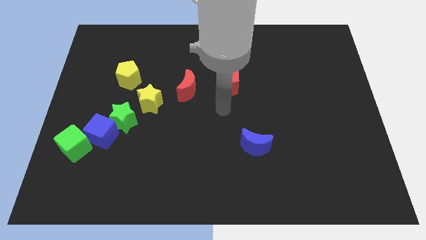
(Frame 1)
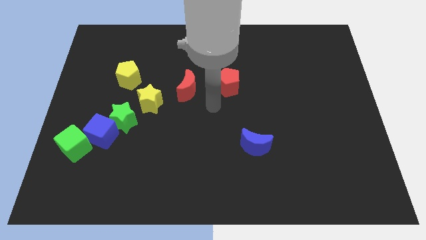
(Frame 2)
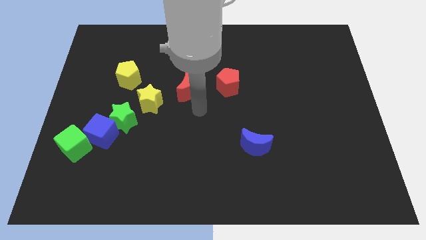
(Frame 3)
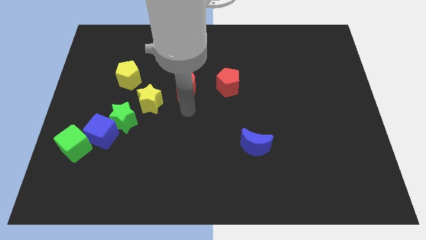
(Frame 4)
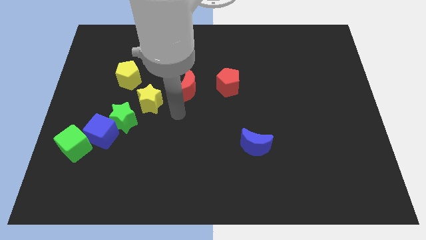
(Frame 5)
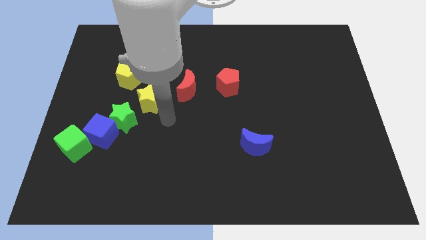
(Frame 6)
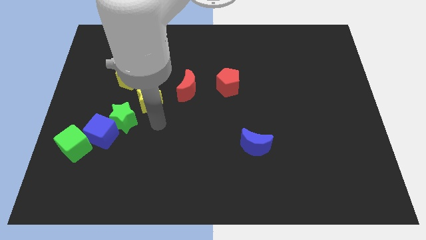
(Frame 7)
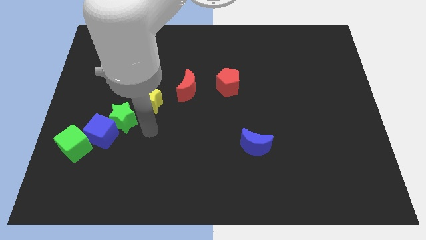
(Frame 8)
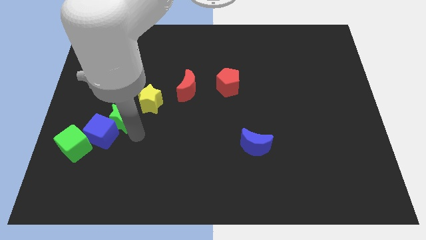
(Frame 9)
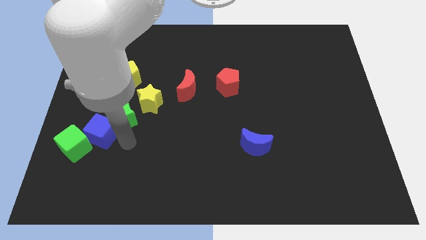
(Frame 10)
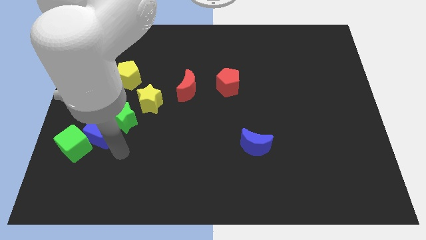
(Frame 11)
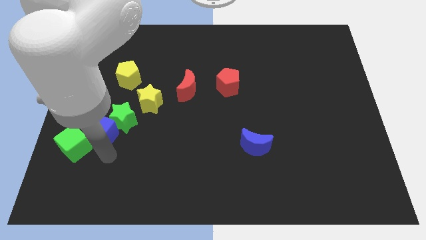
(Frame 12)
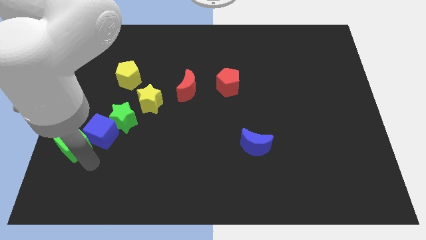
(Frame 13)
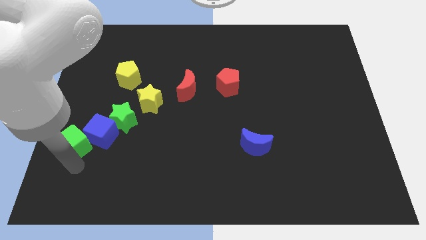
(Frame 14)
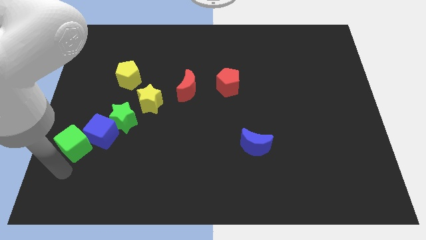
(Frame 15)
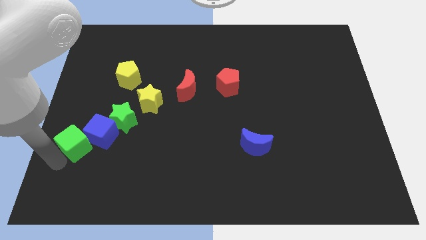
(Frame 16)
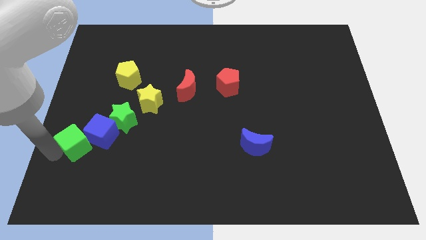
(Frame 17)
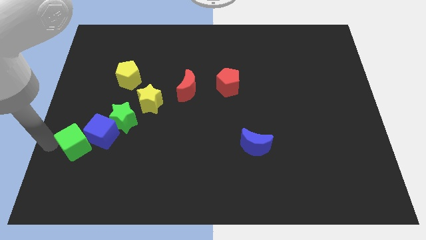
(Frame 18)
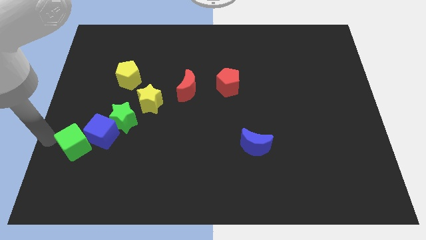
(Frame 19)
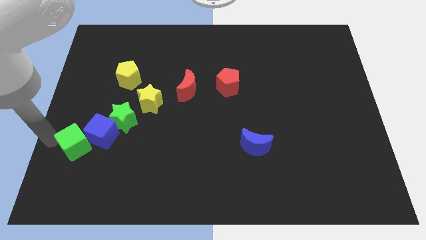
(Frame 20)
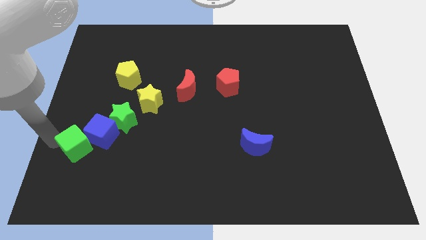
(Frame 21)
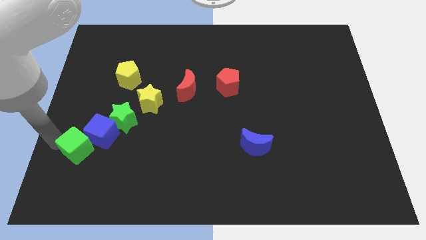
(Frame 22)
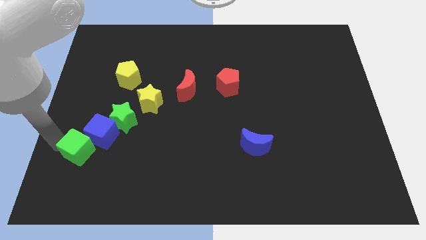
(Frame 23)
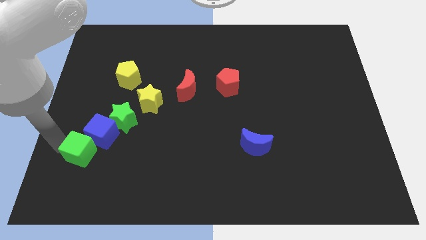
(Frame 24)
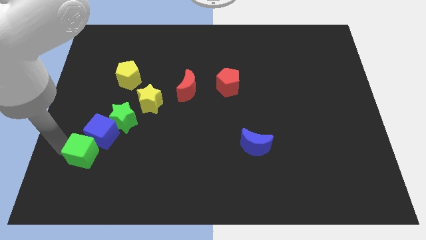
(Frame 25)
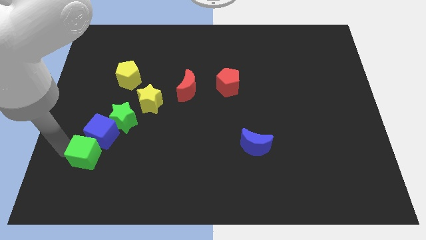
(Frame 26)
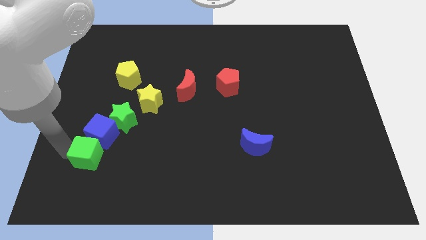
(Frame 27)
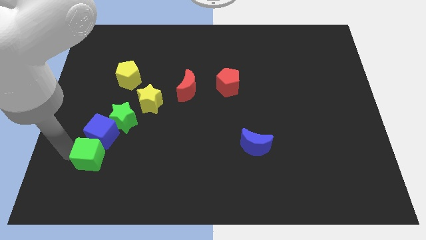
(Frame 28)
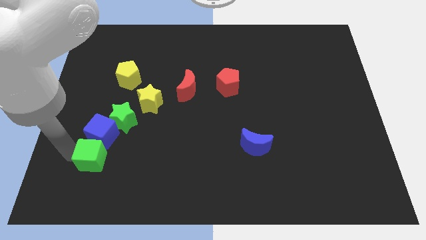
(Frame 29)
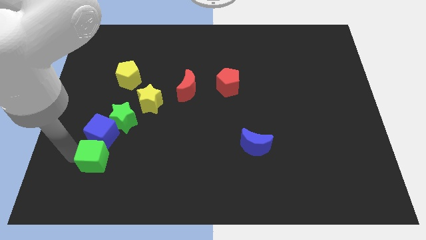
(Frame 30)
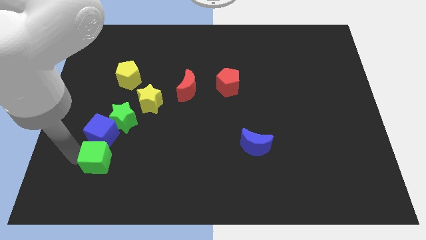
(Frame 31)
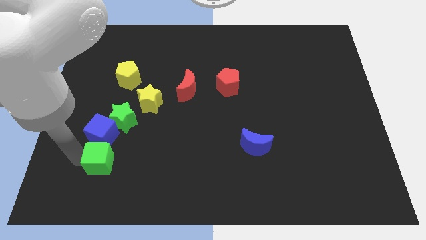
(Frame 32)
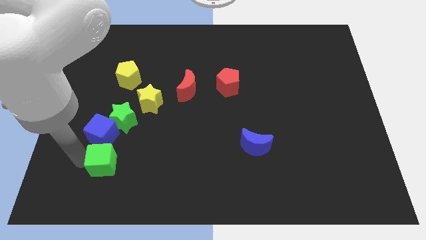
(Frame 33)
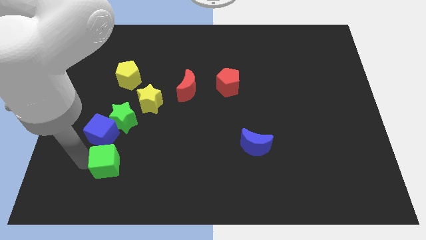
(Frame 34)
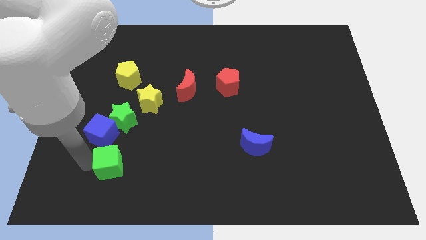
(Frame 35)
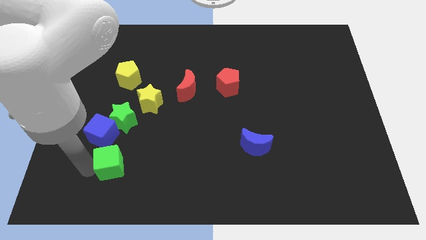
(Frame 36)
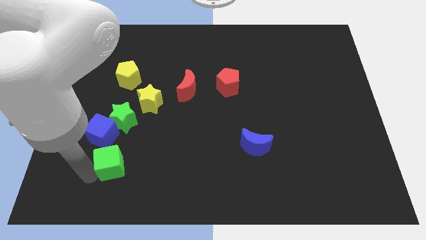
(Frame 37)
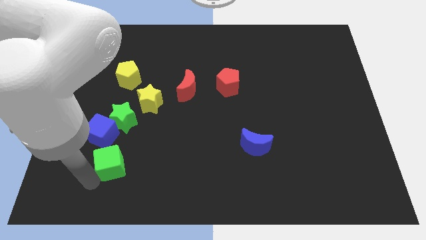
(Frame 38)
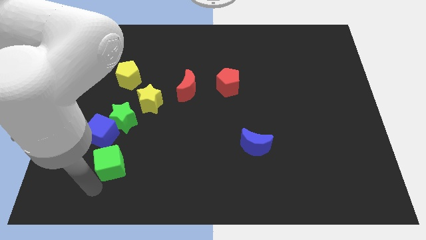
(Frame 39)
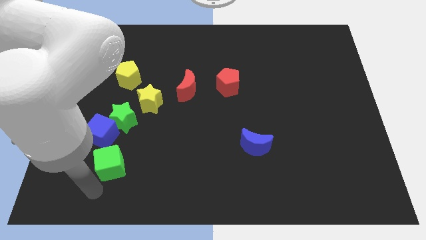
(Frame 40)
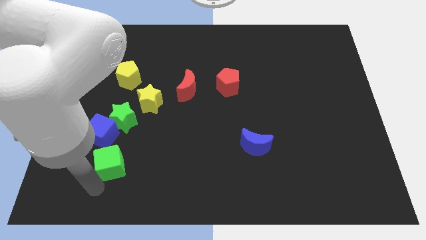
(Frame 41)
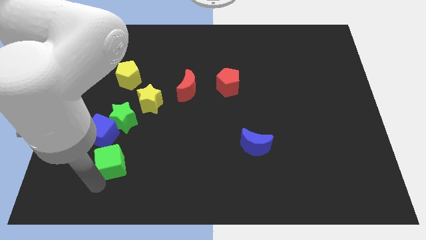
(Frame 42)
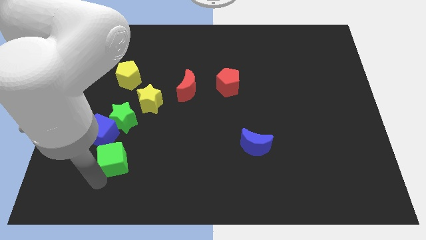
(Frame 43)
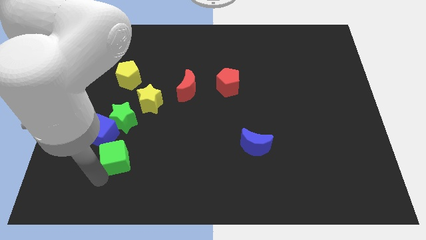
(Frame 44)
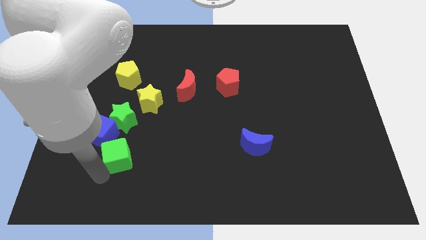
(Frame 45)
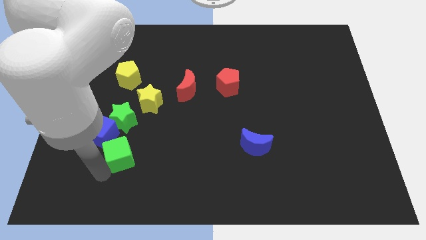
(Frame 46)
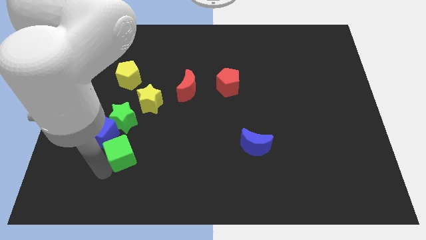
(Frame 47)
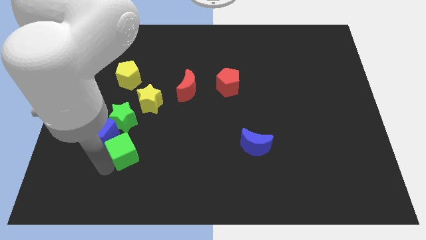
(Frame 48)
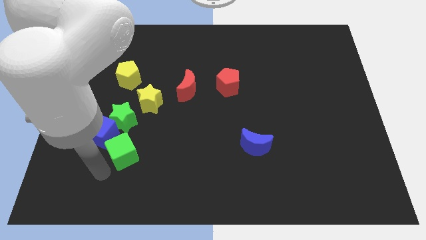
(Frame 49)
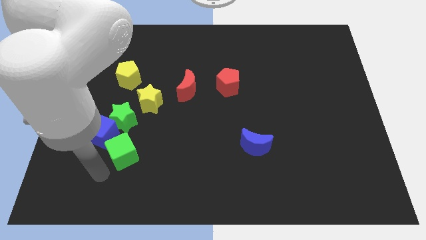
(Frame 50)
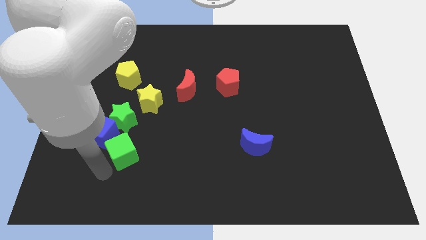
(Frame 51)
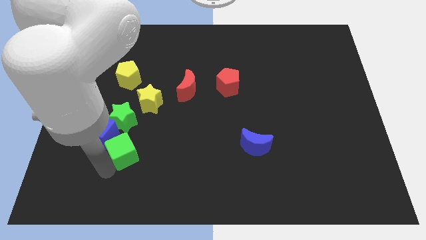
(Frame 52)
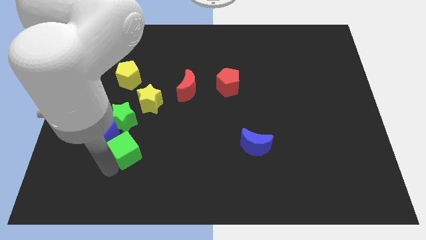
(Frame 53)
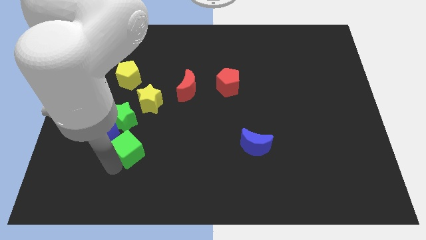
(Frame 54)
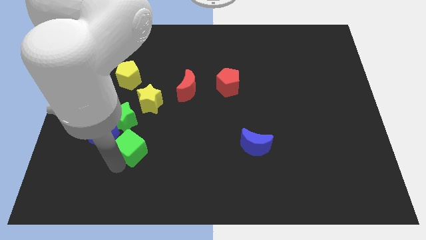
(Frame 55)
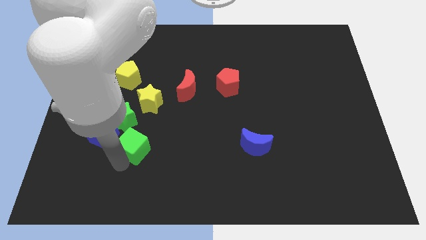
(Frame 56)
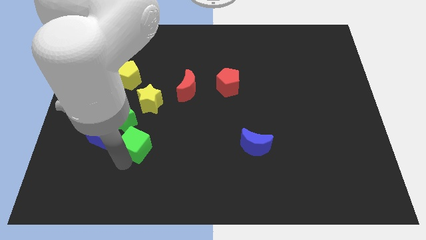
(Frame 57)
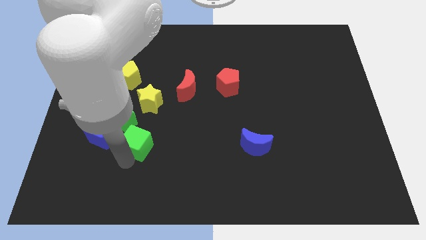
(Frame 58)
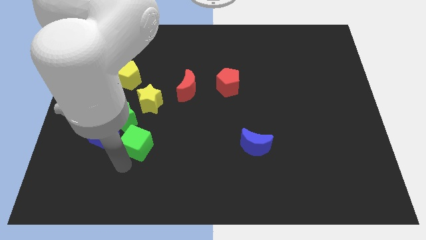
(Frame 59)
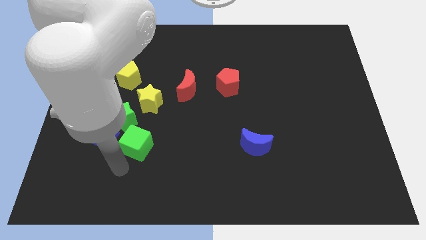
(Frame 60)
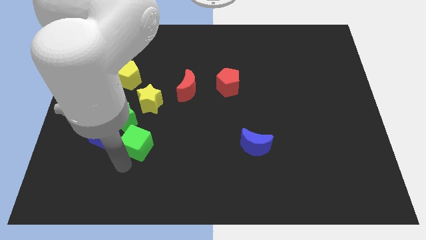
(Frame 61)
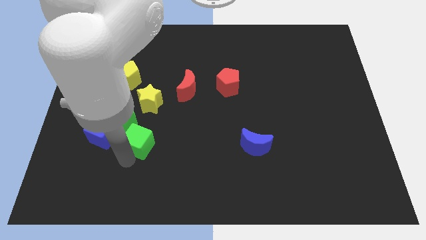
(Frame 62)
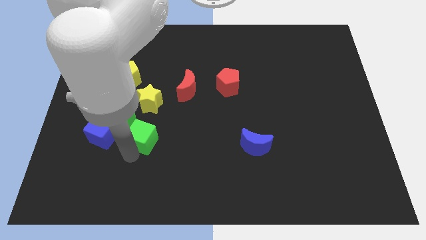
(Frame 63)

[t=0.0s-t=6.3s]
slide the green cube just right of the green star
